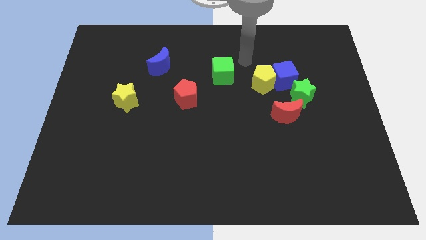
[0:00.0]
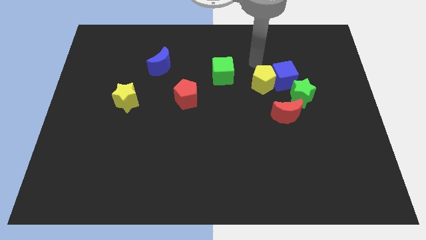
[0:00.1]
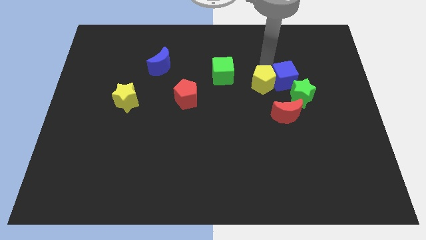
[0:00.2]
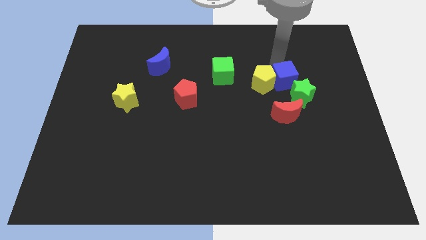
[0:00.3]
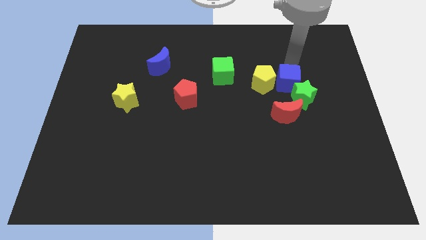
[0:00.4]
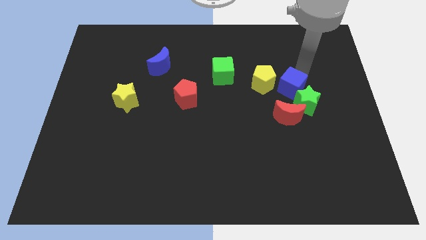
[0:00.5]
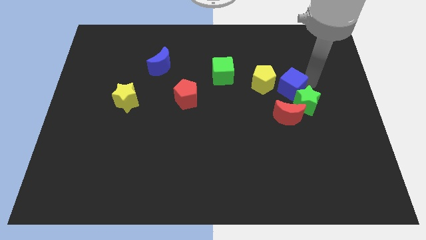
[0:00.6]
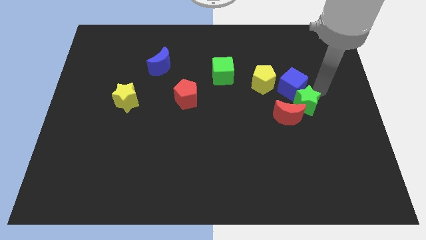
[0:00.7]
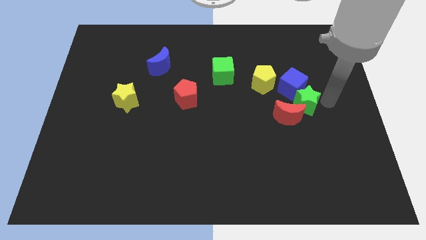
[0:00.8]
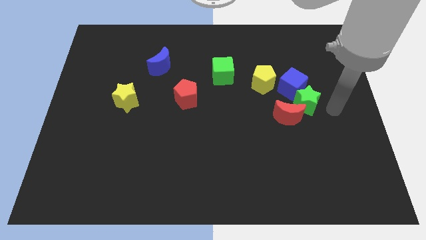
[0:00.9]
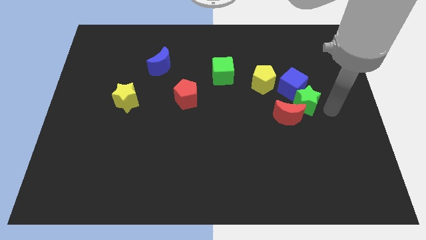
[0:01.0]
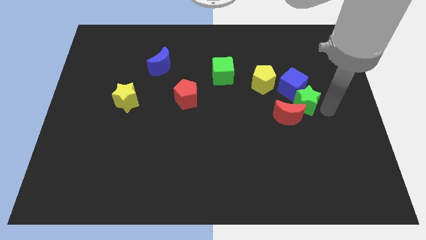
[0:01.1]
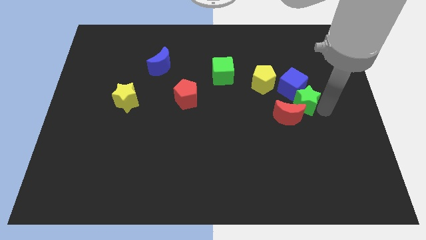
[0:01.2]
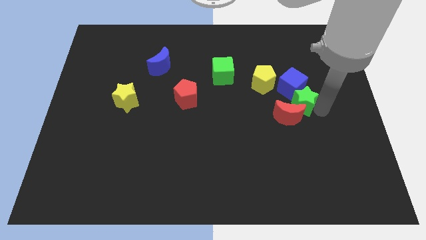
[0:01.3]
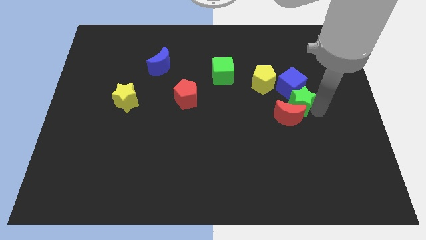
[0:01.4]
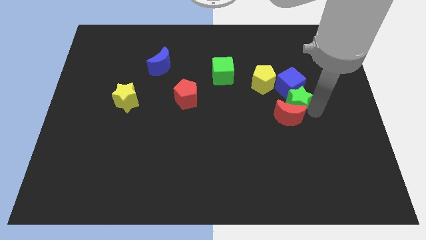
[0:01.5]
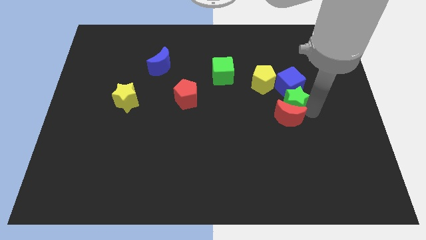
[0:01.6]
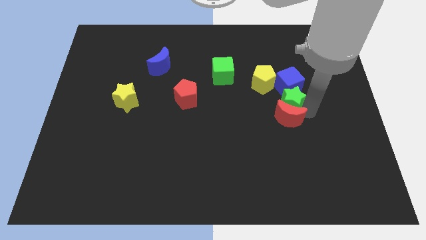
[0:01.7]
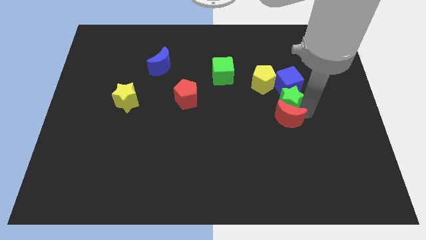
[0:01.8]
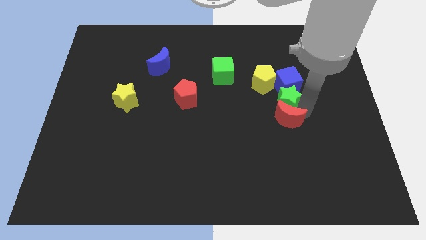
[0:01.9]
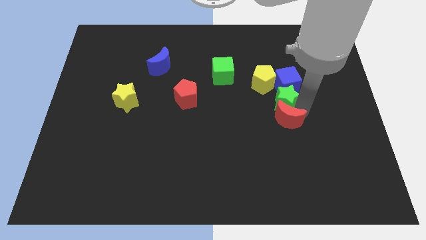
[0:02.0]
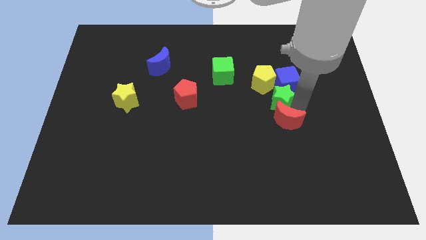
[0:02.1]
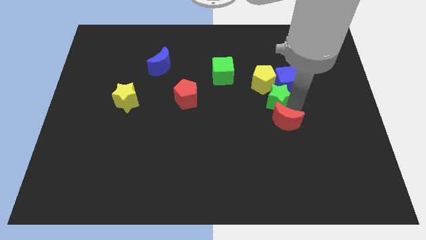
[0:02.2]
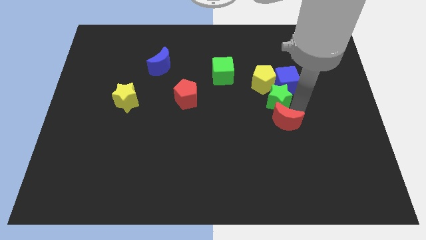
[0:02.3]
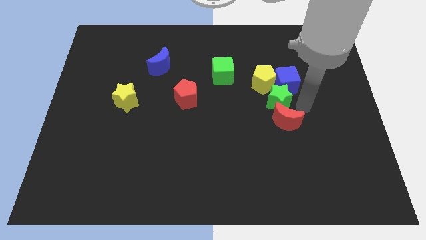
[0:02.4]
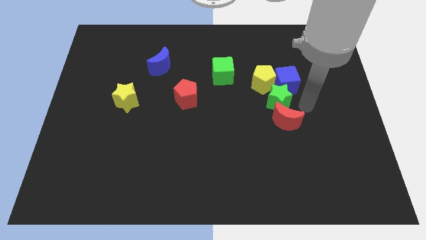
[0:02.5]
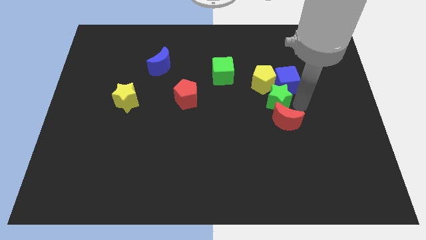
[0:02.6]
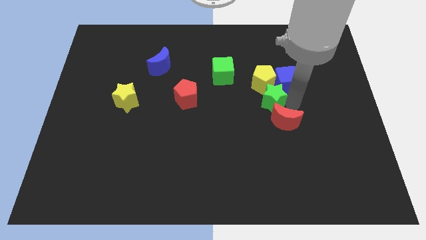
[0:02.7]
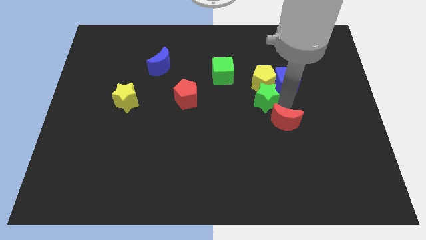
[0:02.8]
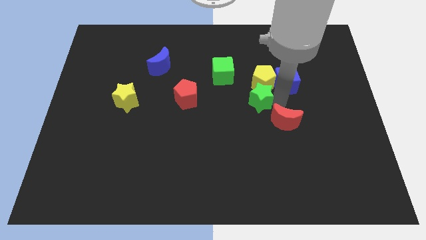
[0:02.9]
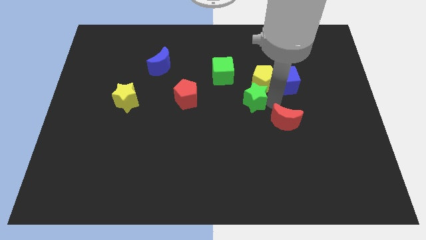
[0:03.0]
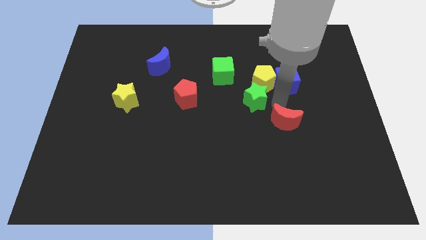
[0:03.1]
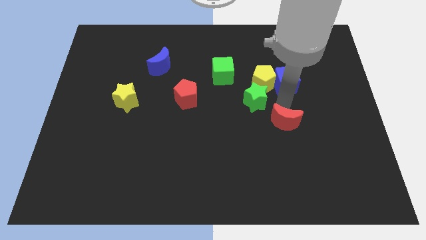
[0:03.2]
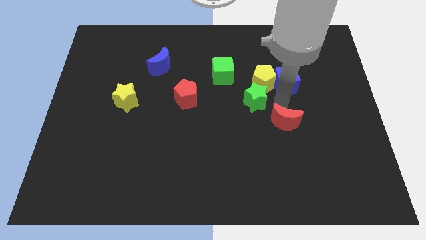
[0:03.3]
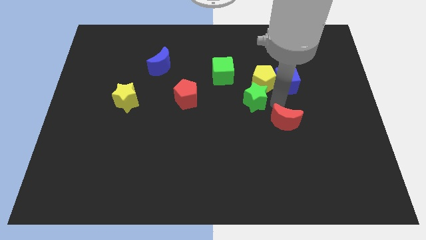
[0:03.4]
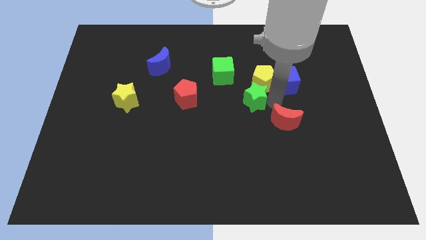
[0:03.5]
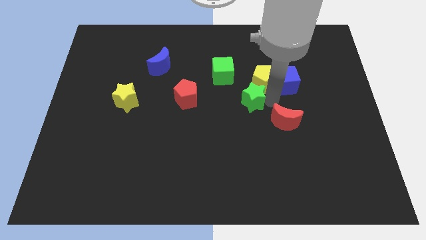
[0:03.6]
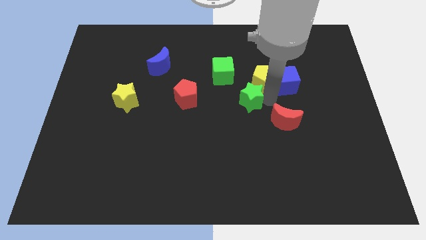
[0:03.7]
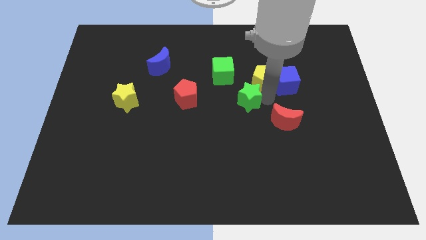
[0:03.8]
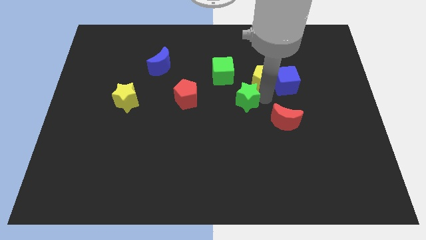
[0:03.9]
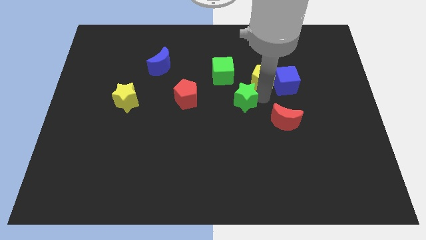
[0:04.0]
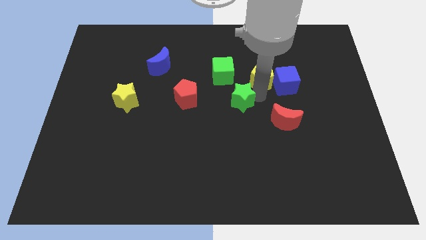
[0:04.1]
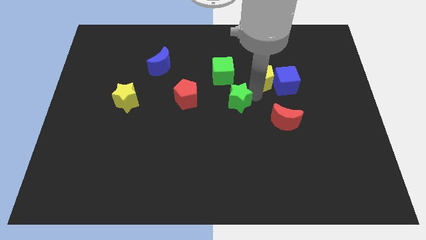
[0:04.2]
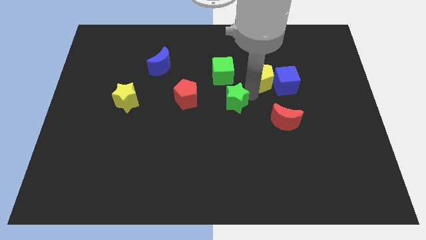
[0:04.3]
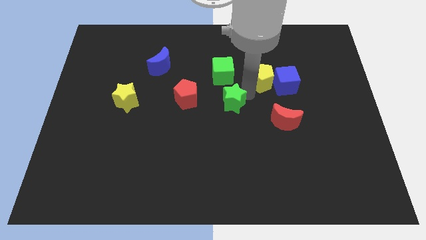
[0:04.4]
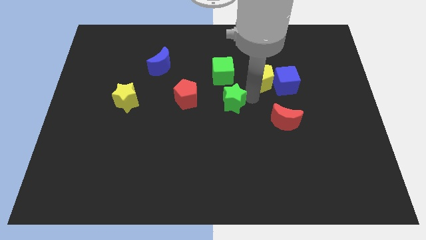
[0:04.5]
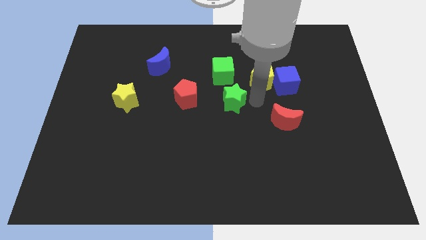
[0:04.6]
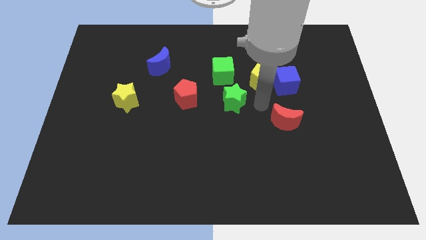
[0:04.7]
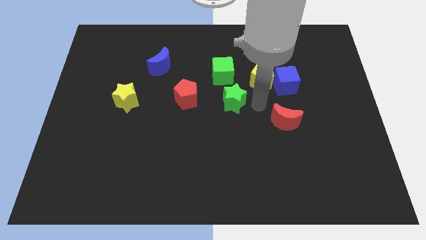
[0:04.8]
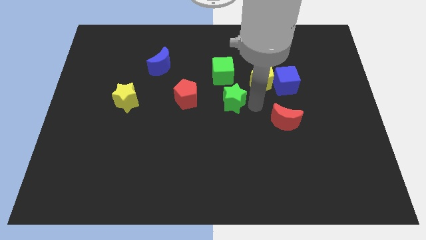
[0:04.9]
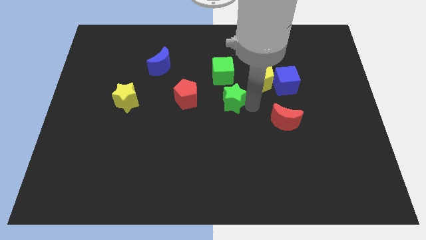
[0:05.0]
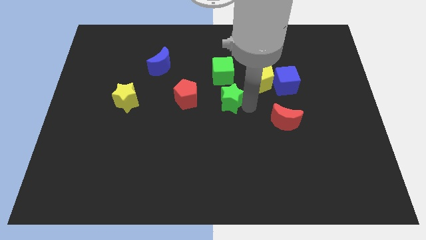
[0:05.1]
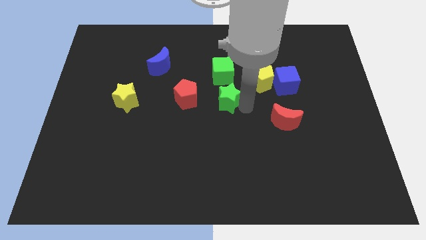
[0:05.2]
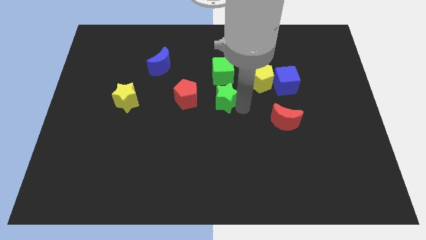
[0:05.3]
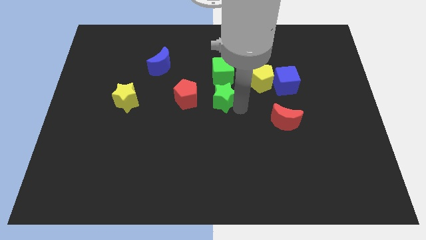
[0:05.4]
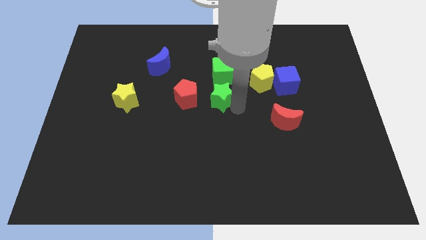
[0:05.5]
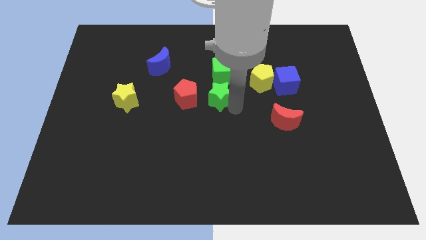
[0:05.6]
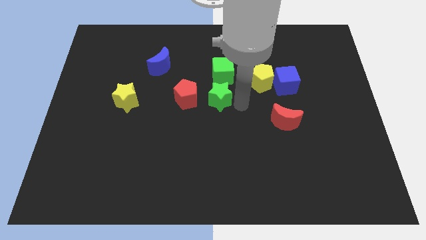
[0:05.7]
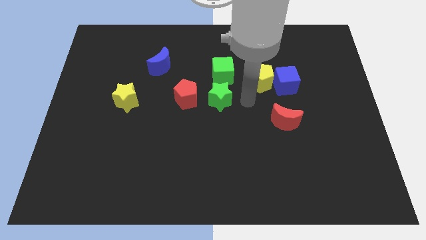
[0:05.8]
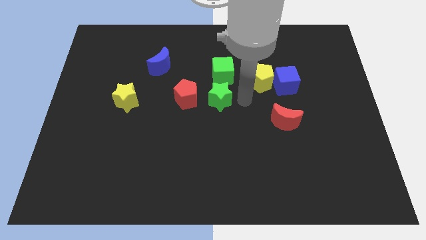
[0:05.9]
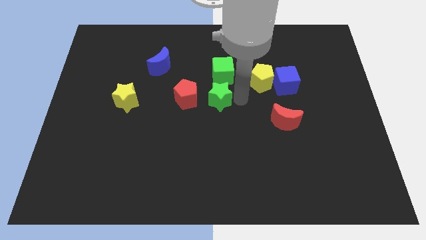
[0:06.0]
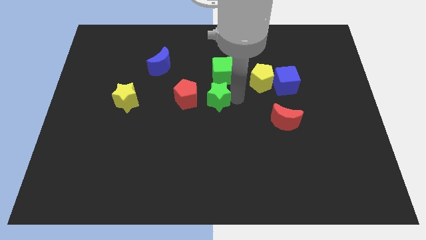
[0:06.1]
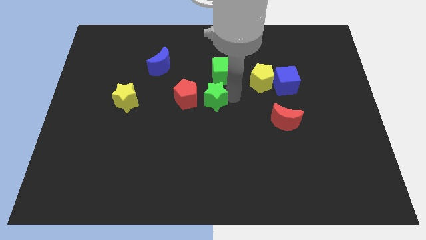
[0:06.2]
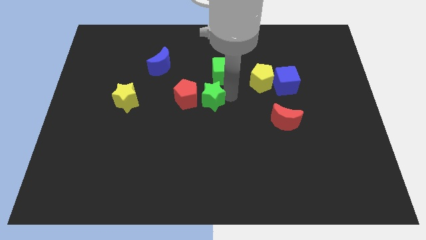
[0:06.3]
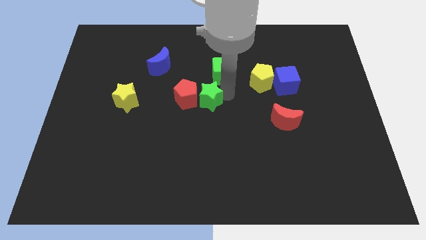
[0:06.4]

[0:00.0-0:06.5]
move the green star towards the red pentagon
